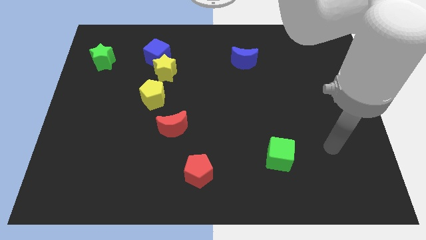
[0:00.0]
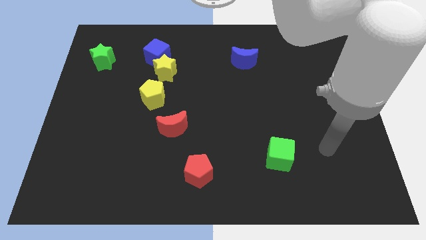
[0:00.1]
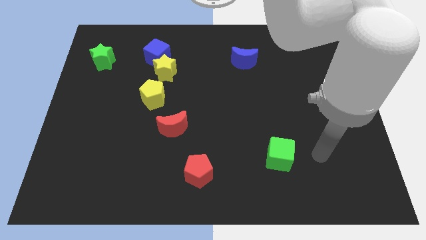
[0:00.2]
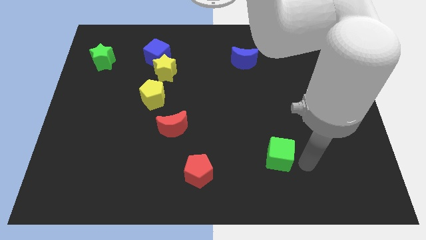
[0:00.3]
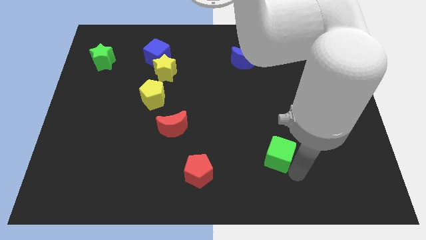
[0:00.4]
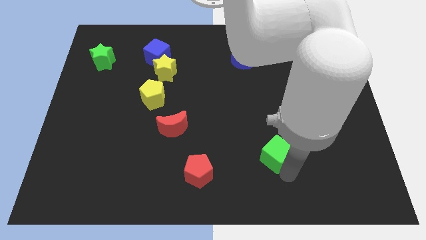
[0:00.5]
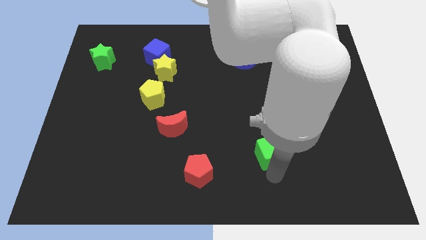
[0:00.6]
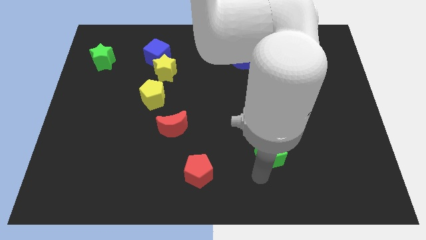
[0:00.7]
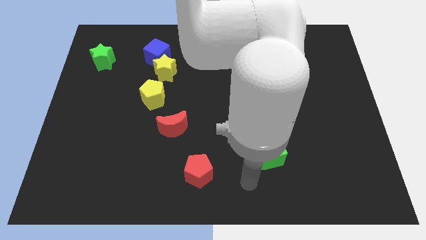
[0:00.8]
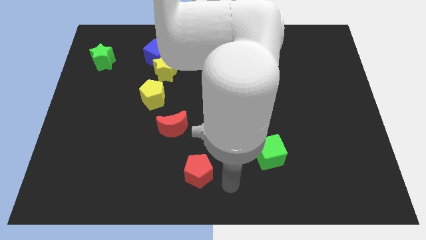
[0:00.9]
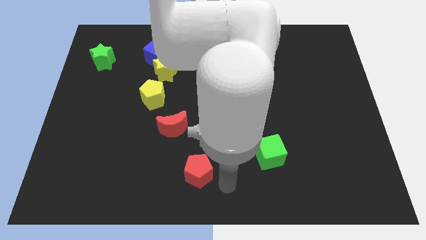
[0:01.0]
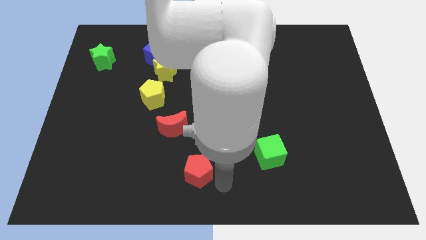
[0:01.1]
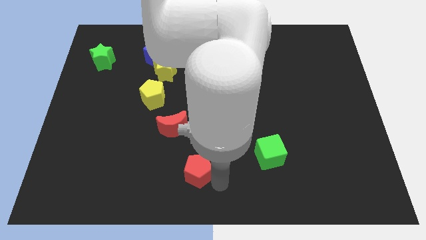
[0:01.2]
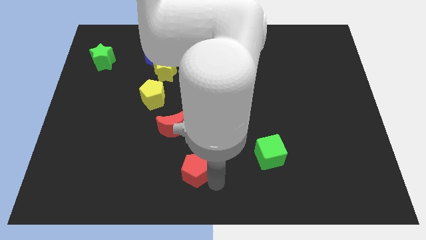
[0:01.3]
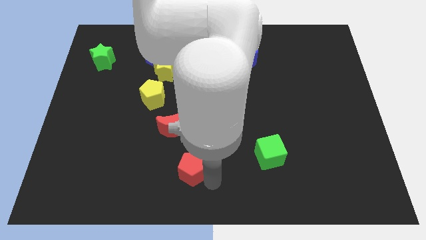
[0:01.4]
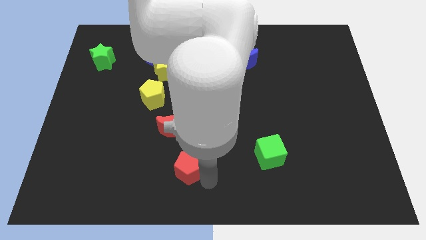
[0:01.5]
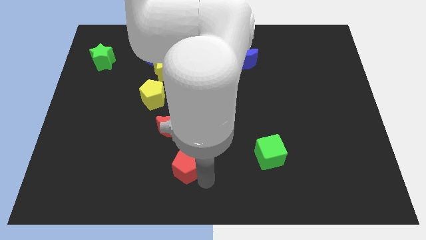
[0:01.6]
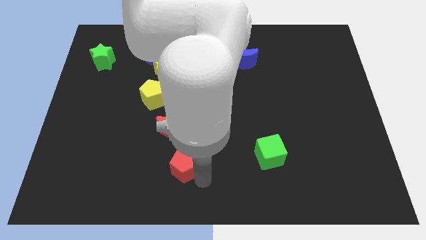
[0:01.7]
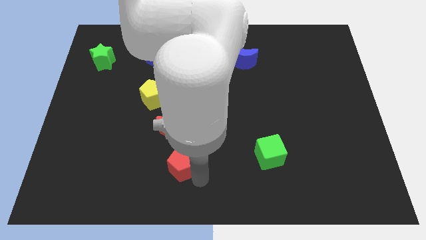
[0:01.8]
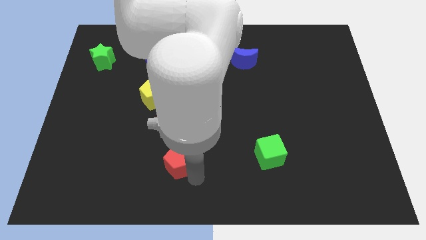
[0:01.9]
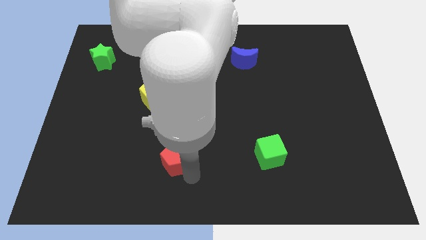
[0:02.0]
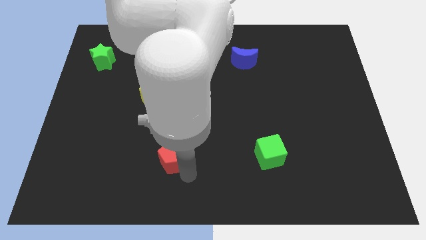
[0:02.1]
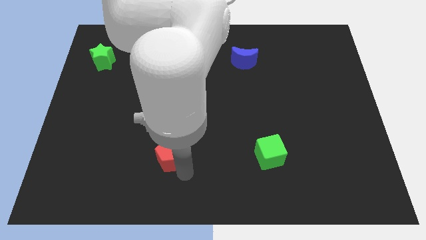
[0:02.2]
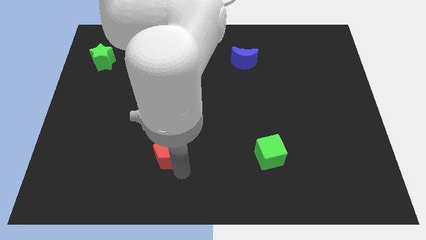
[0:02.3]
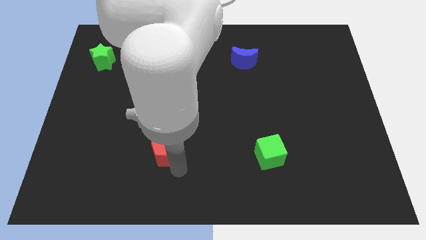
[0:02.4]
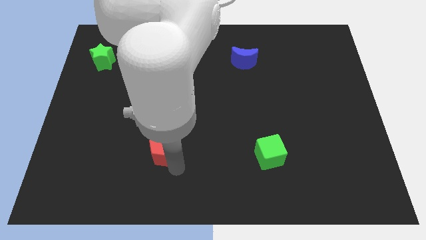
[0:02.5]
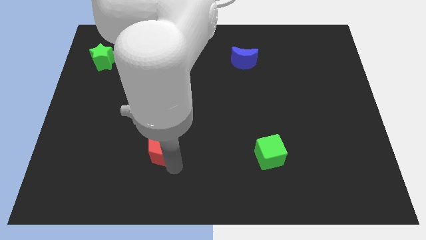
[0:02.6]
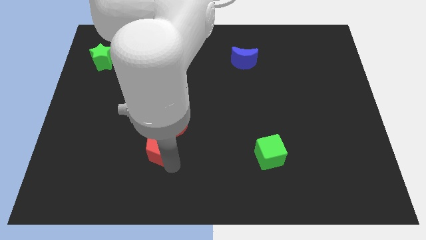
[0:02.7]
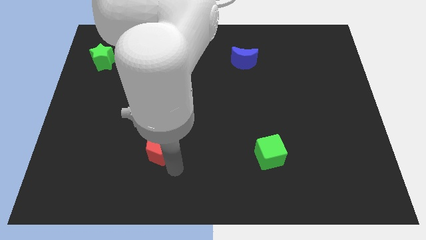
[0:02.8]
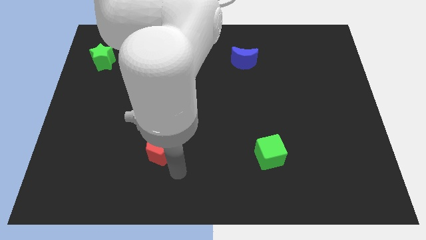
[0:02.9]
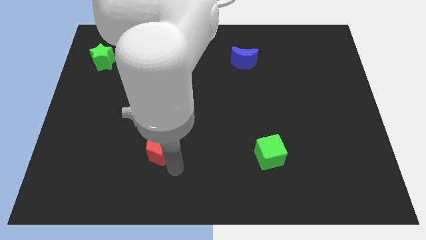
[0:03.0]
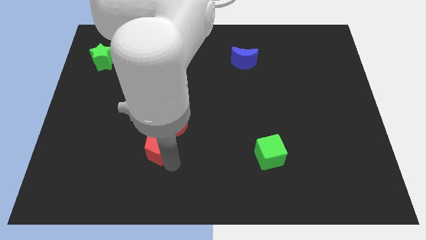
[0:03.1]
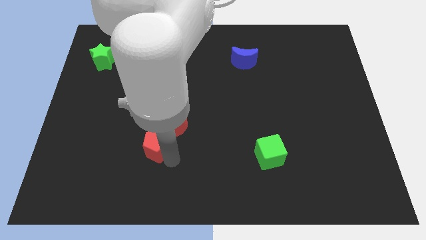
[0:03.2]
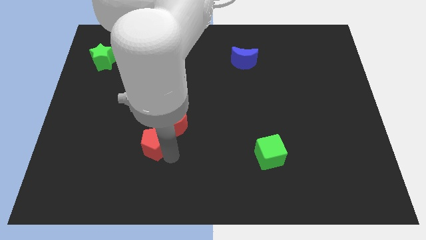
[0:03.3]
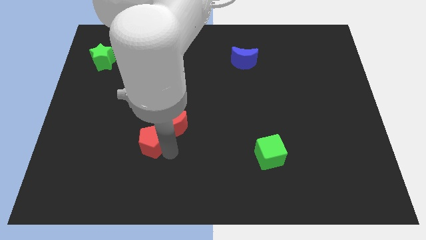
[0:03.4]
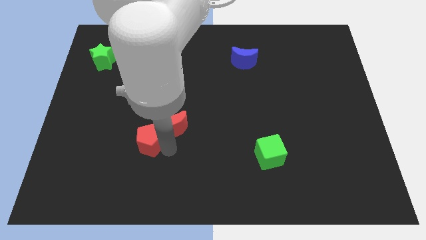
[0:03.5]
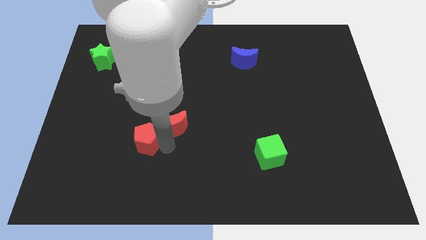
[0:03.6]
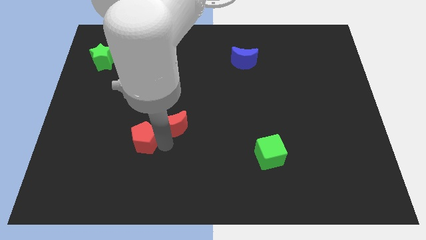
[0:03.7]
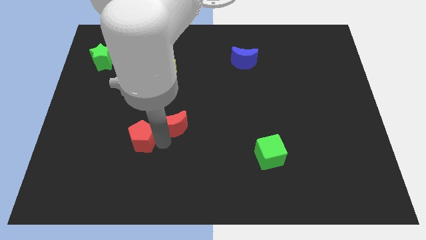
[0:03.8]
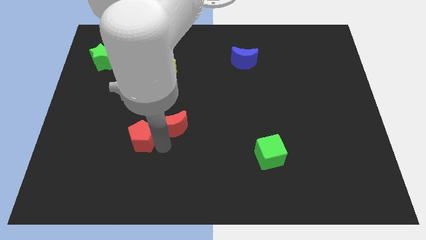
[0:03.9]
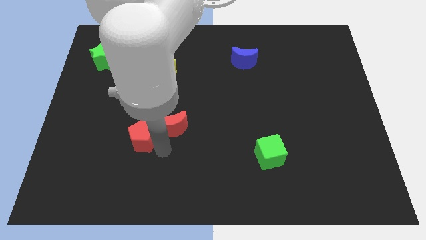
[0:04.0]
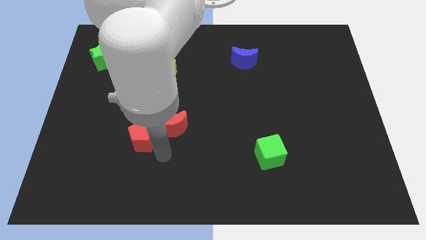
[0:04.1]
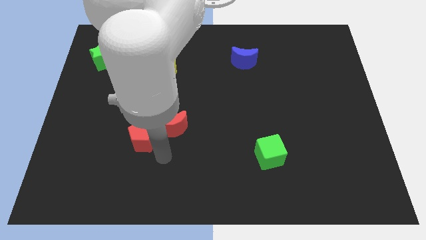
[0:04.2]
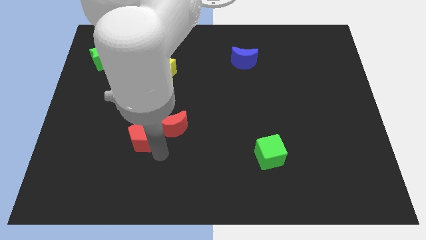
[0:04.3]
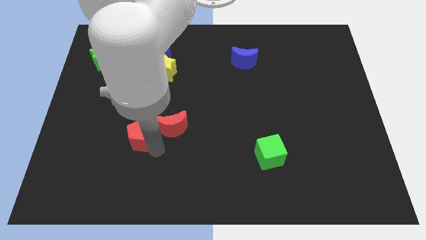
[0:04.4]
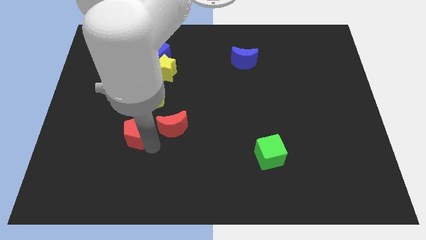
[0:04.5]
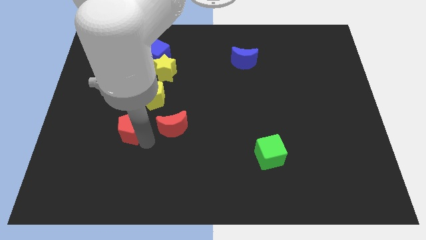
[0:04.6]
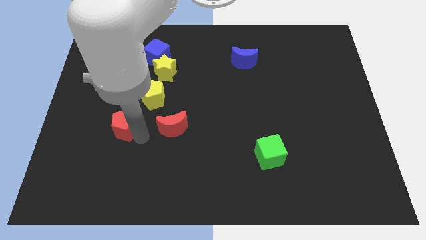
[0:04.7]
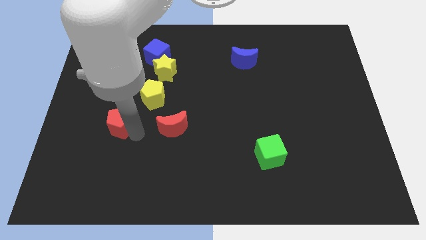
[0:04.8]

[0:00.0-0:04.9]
move the red pentagon up and left

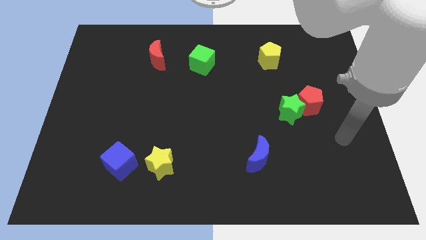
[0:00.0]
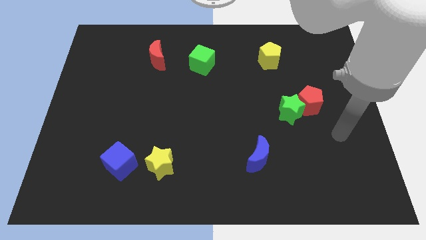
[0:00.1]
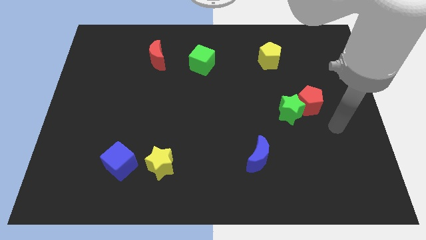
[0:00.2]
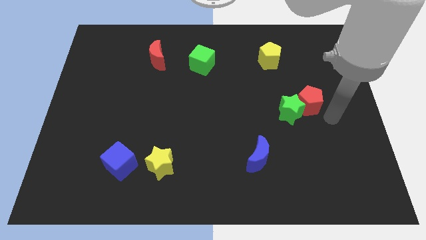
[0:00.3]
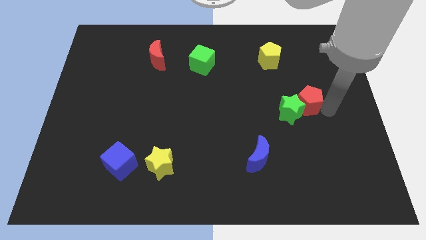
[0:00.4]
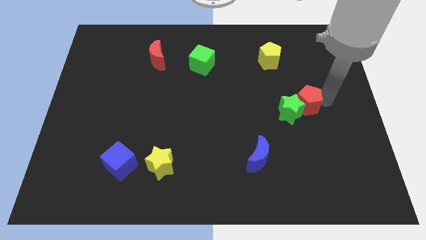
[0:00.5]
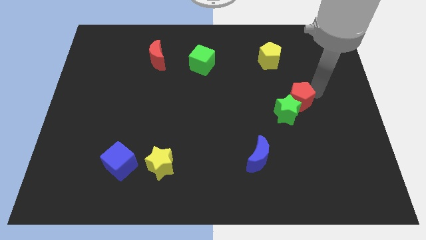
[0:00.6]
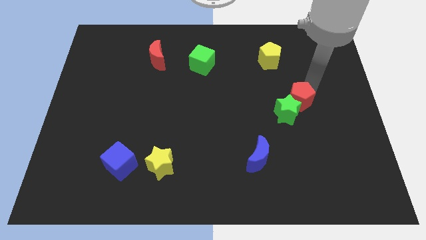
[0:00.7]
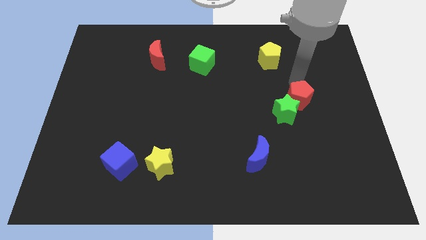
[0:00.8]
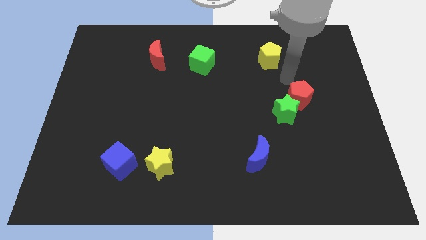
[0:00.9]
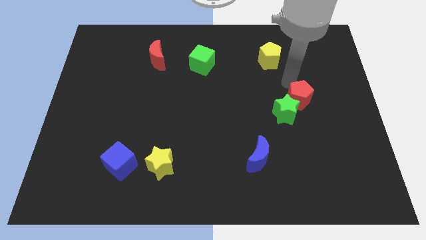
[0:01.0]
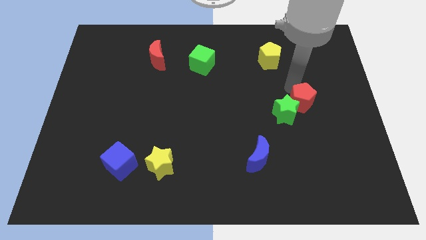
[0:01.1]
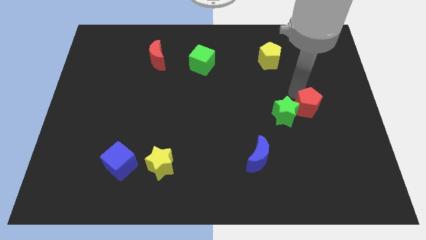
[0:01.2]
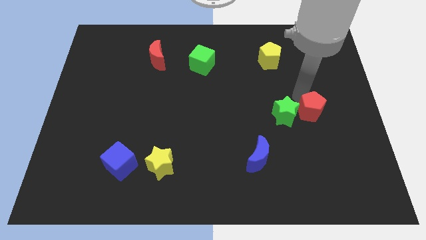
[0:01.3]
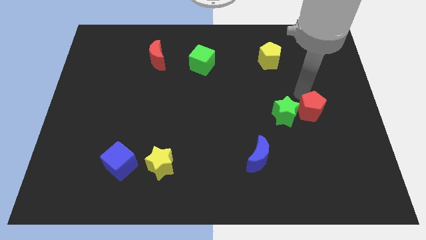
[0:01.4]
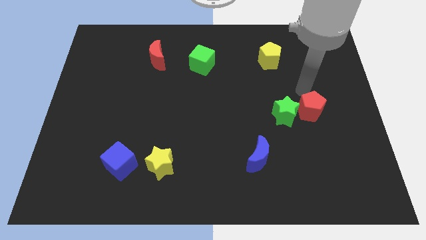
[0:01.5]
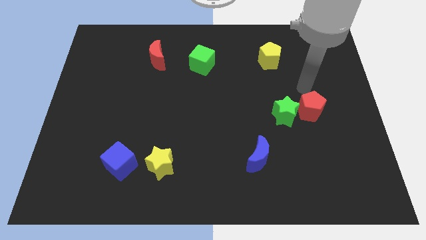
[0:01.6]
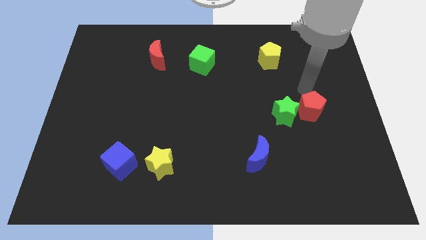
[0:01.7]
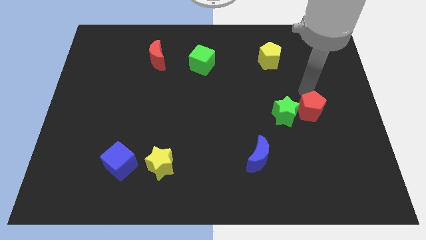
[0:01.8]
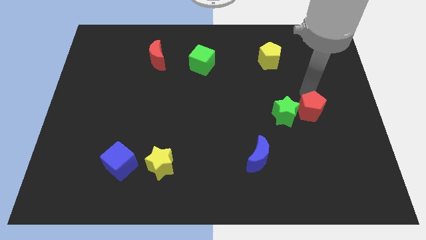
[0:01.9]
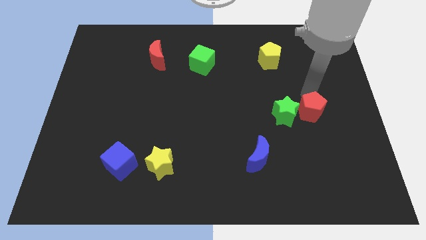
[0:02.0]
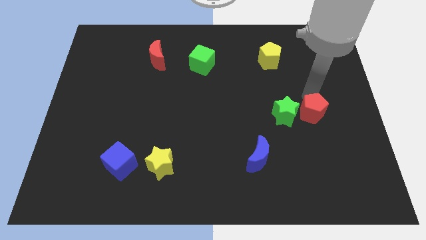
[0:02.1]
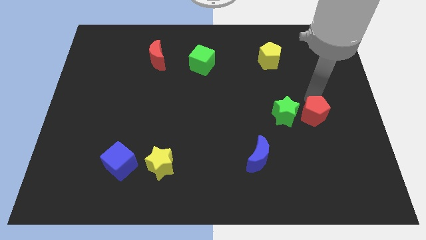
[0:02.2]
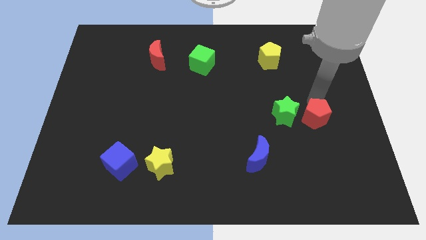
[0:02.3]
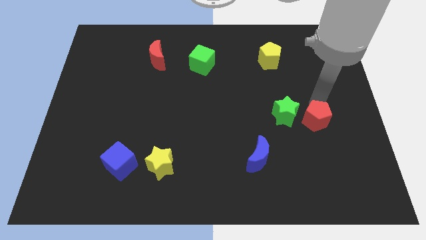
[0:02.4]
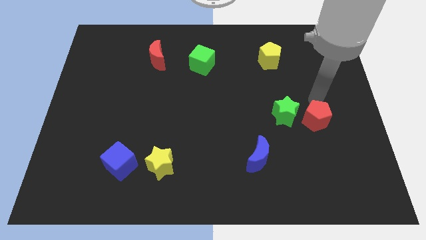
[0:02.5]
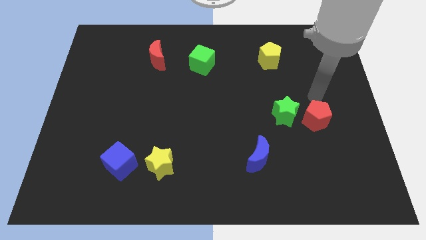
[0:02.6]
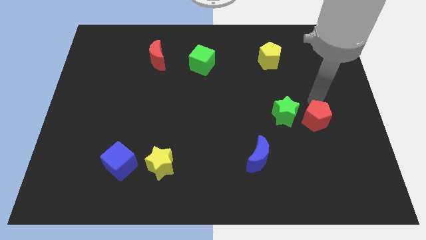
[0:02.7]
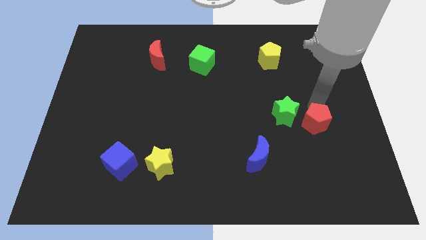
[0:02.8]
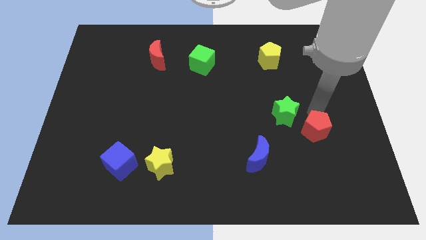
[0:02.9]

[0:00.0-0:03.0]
slightly push the red pentagon down
